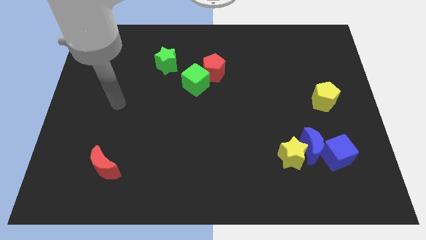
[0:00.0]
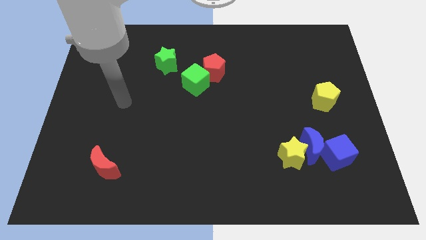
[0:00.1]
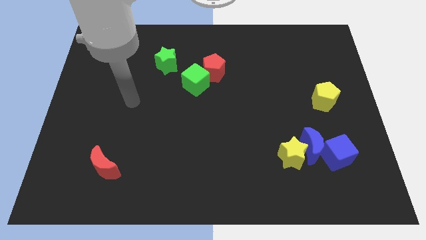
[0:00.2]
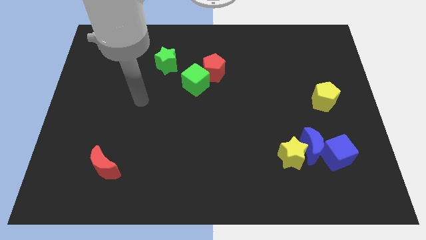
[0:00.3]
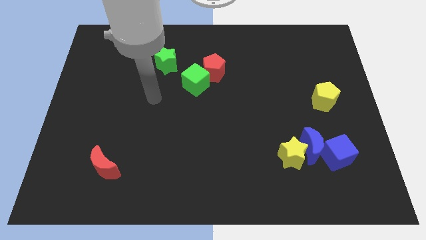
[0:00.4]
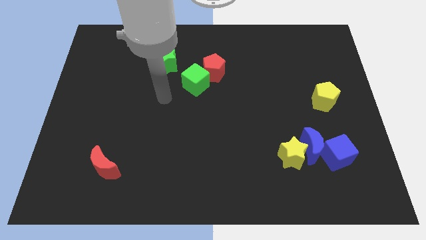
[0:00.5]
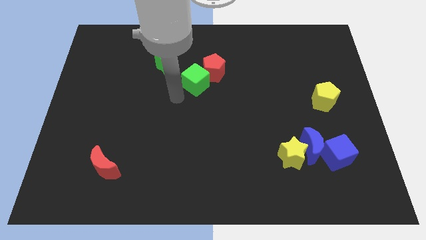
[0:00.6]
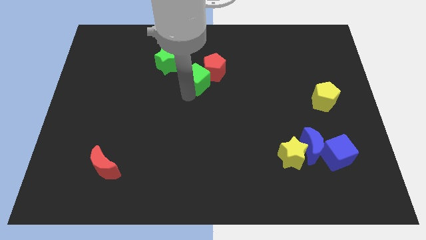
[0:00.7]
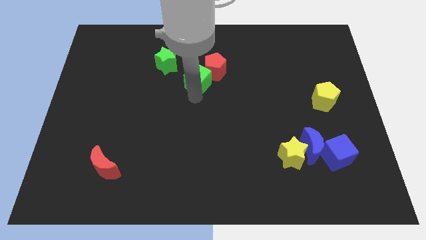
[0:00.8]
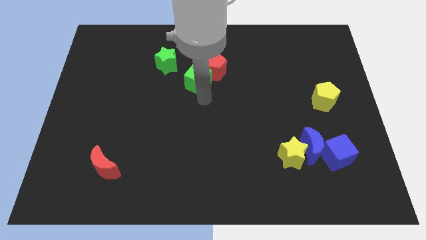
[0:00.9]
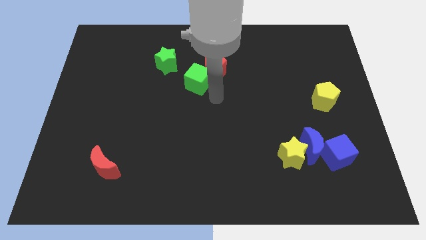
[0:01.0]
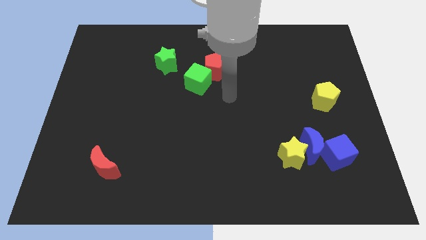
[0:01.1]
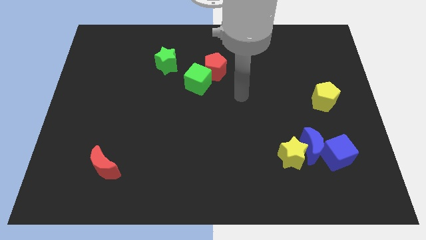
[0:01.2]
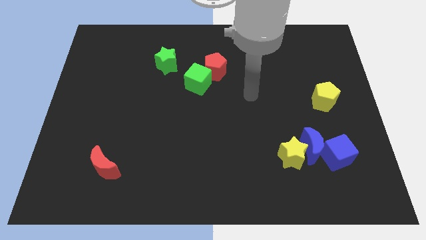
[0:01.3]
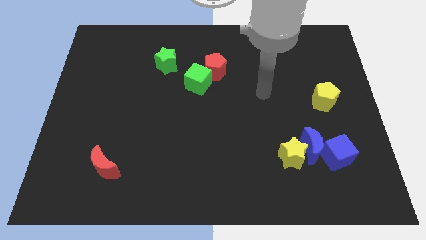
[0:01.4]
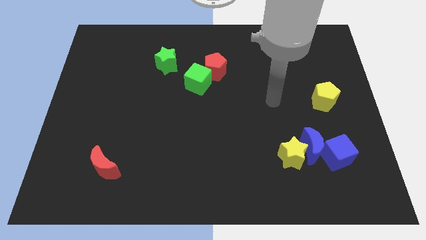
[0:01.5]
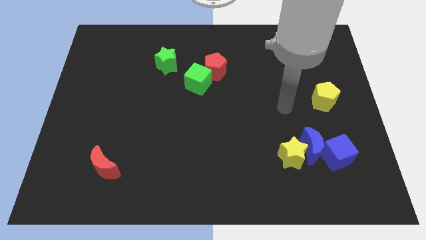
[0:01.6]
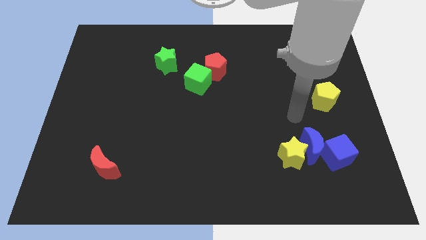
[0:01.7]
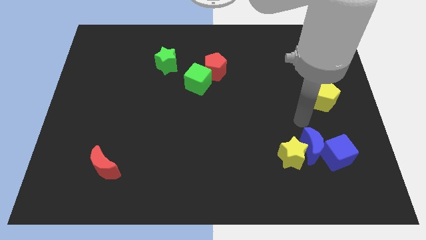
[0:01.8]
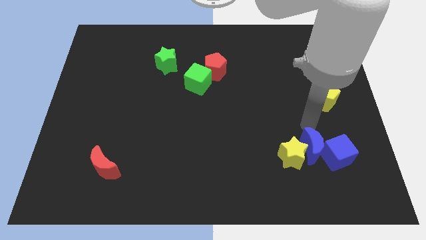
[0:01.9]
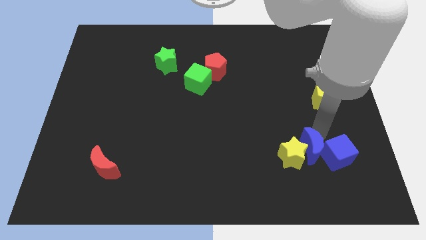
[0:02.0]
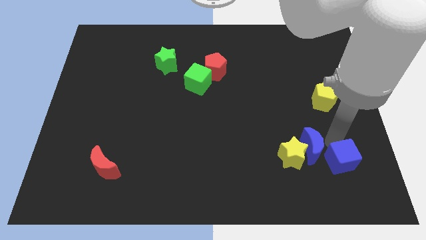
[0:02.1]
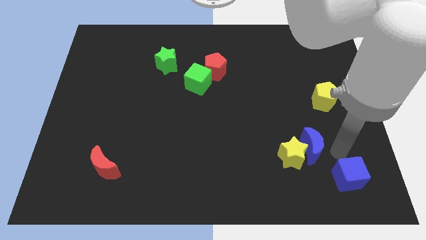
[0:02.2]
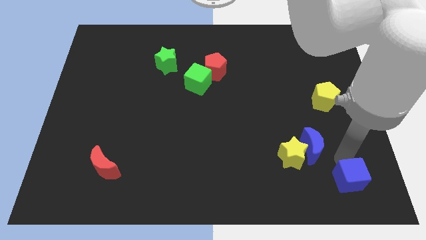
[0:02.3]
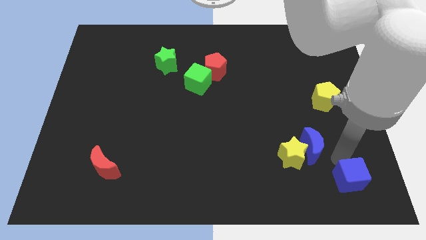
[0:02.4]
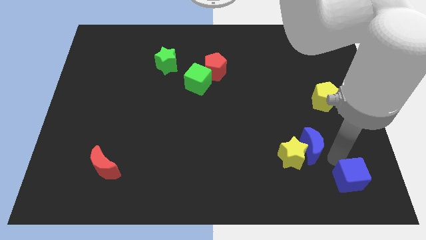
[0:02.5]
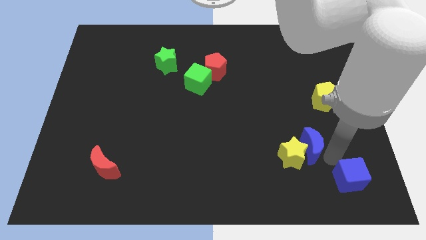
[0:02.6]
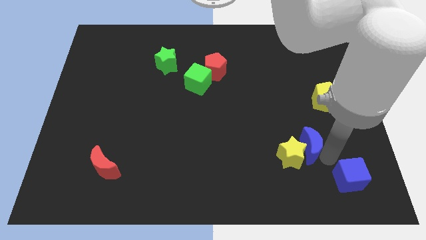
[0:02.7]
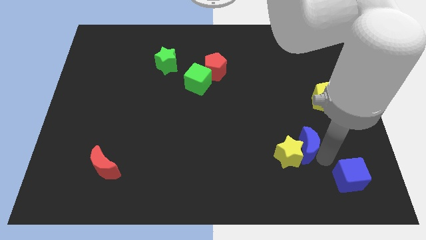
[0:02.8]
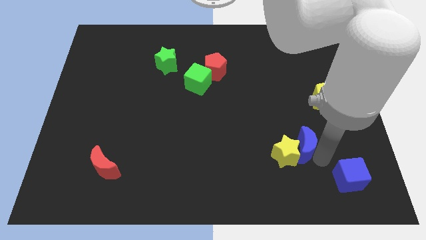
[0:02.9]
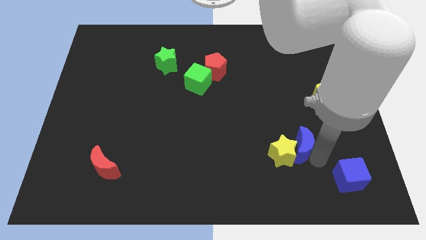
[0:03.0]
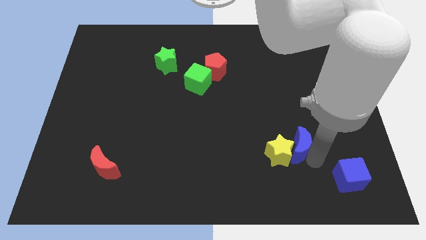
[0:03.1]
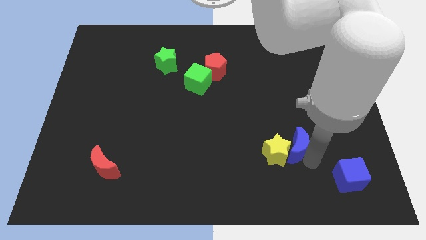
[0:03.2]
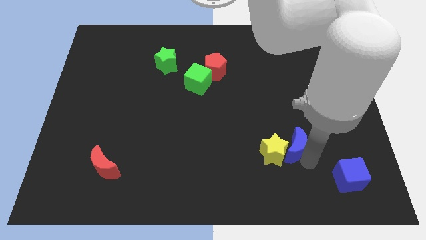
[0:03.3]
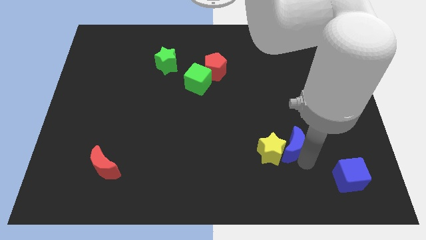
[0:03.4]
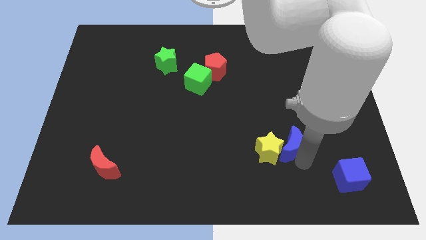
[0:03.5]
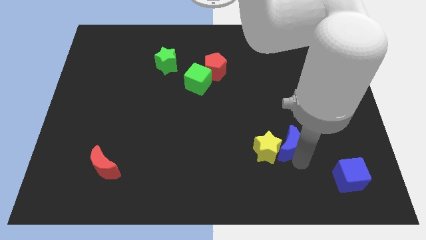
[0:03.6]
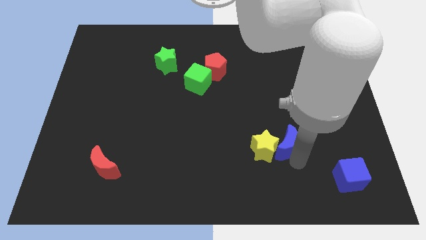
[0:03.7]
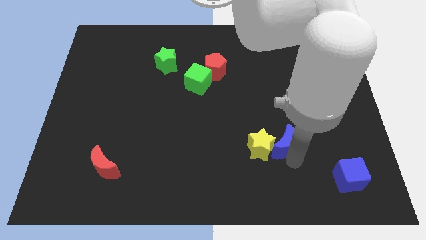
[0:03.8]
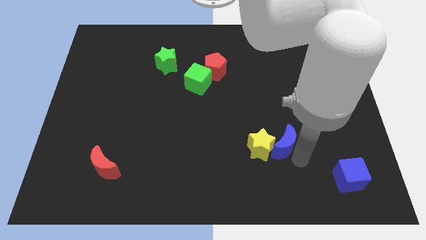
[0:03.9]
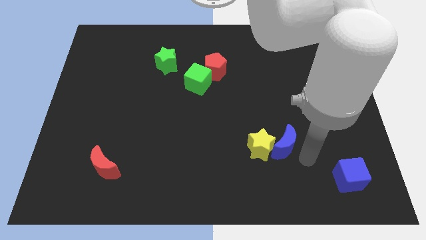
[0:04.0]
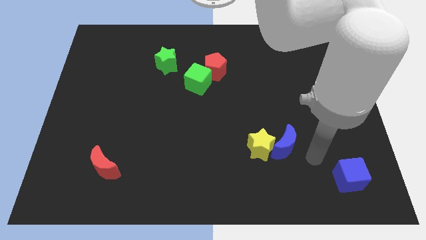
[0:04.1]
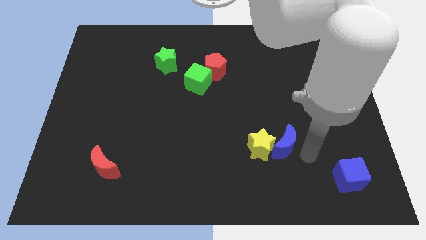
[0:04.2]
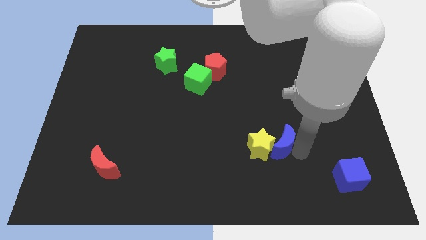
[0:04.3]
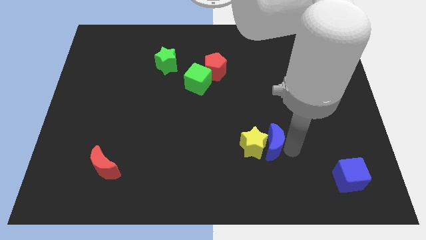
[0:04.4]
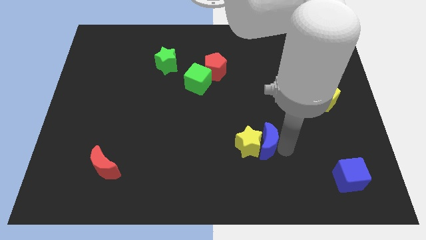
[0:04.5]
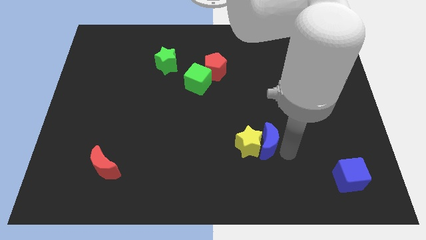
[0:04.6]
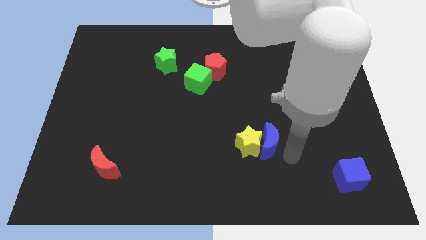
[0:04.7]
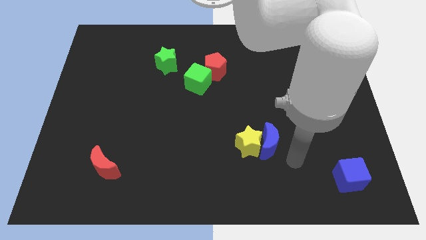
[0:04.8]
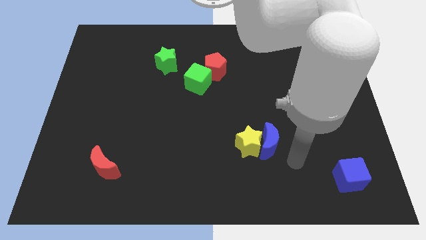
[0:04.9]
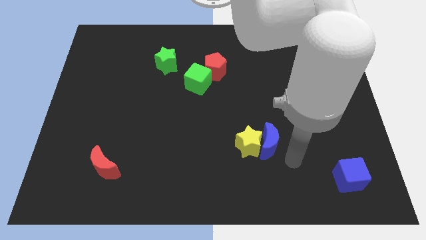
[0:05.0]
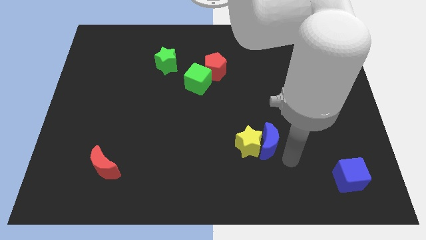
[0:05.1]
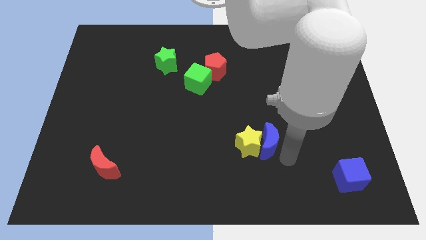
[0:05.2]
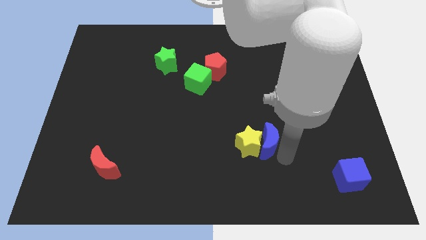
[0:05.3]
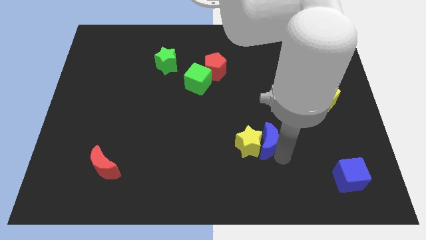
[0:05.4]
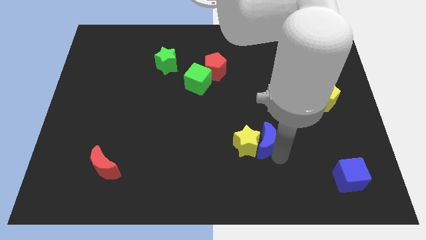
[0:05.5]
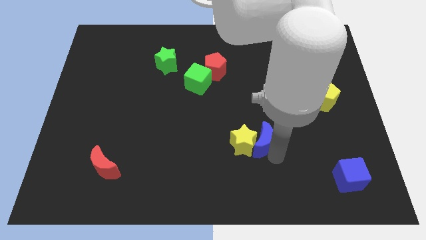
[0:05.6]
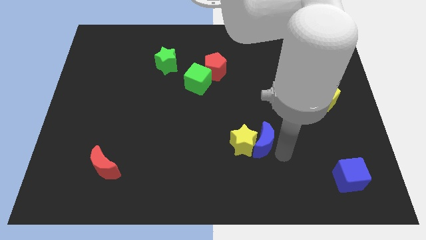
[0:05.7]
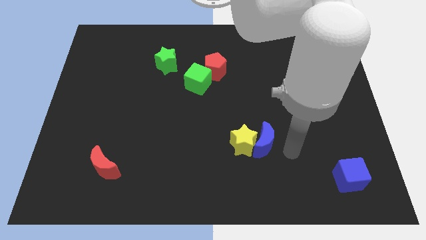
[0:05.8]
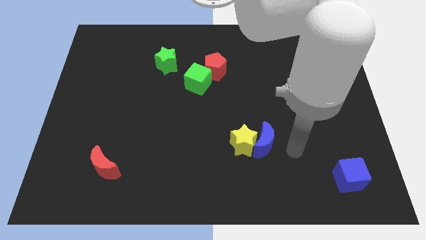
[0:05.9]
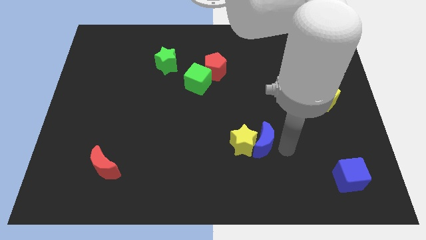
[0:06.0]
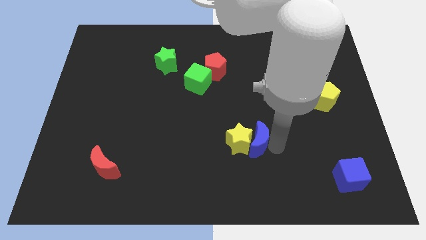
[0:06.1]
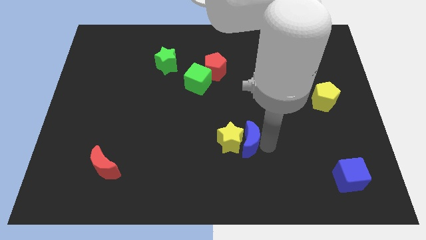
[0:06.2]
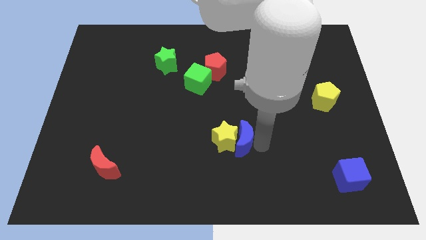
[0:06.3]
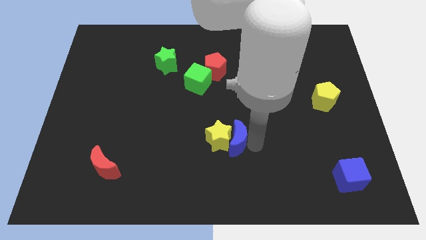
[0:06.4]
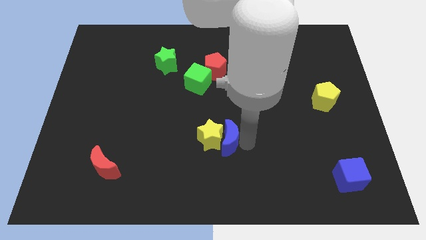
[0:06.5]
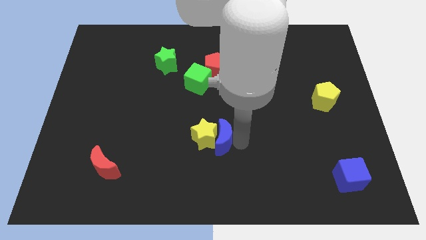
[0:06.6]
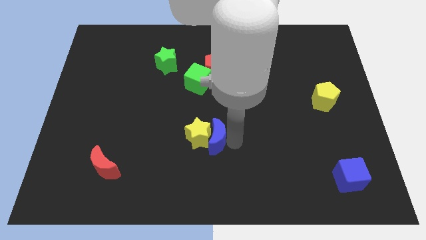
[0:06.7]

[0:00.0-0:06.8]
move the blue moon to the left

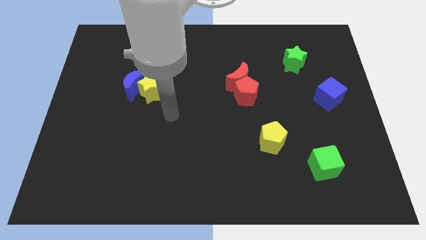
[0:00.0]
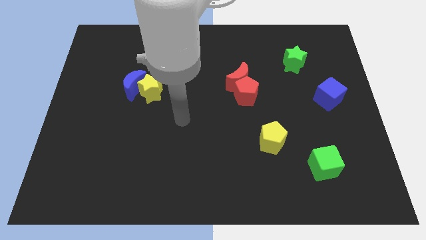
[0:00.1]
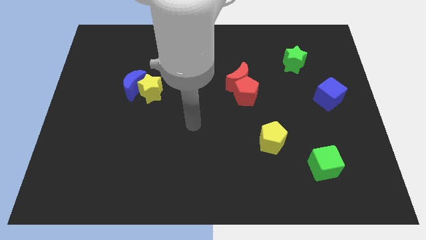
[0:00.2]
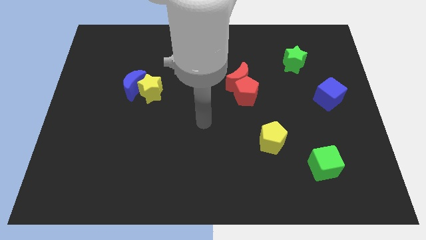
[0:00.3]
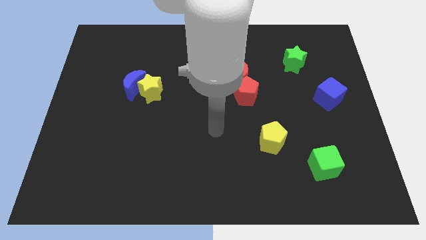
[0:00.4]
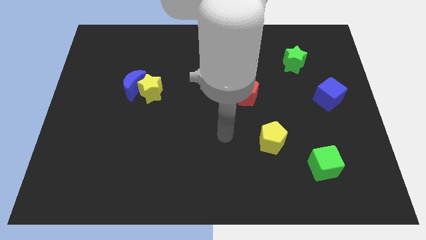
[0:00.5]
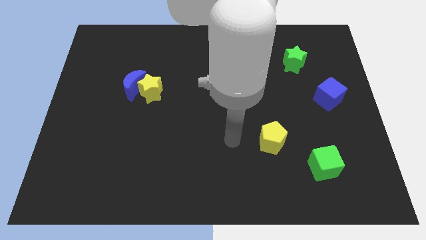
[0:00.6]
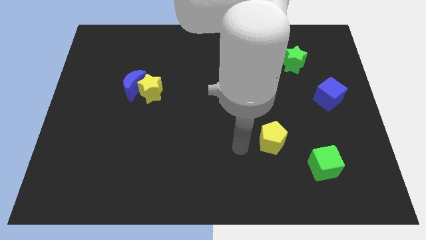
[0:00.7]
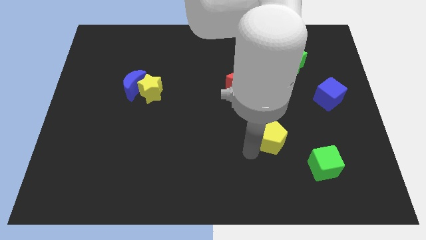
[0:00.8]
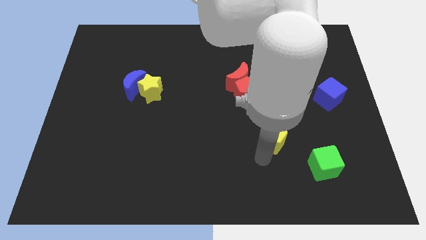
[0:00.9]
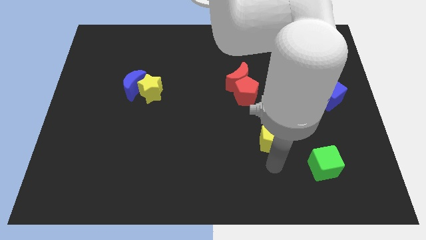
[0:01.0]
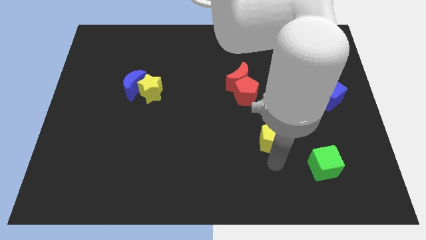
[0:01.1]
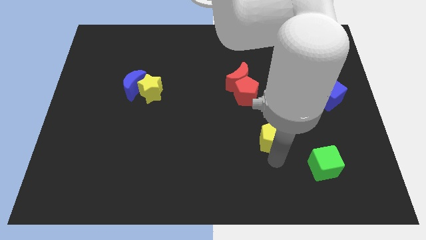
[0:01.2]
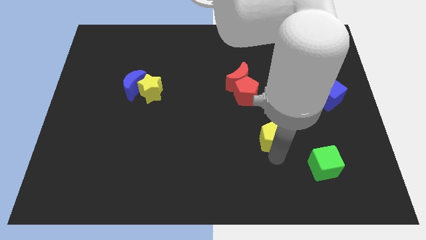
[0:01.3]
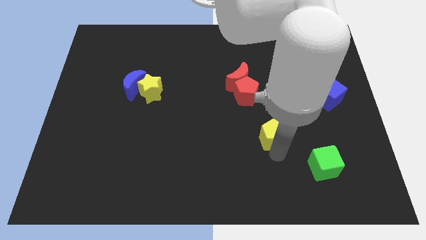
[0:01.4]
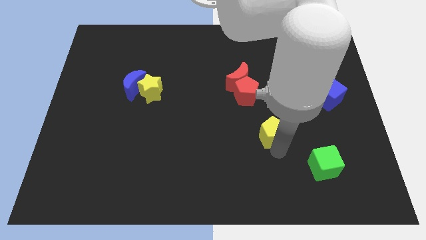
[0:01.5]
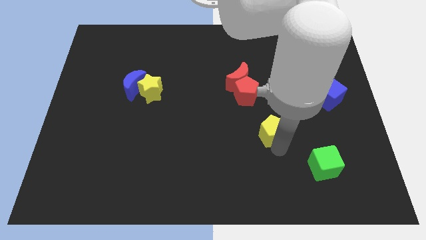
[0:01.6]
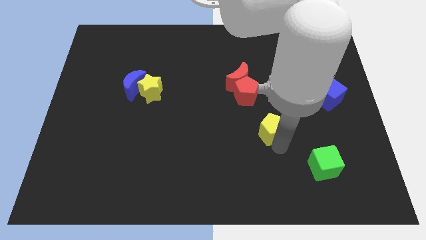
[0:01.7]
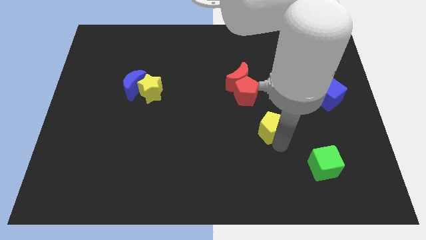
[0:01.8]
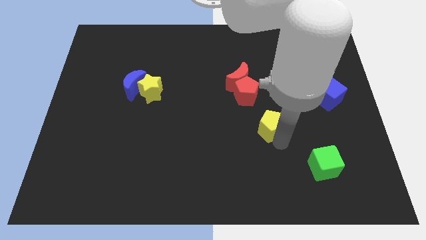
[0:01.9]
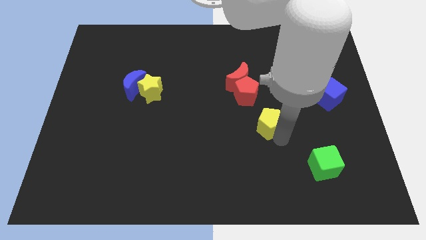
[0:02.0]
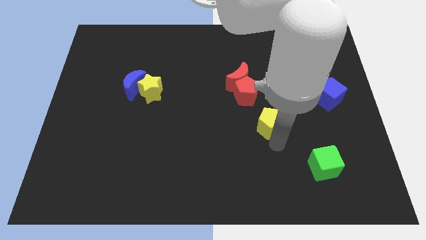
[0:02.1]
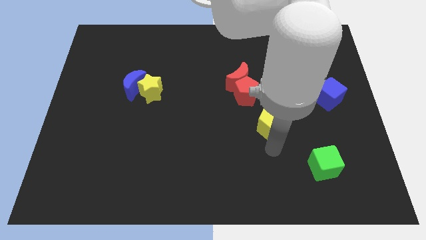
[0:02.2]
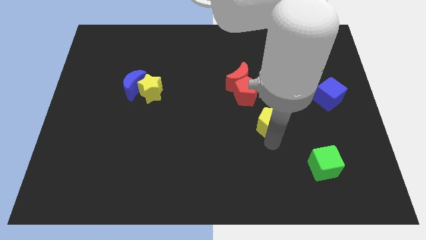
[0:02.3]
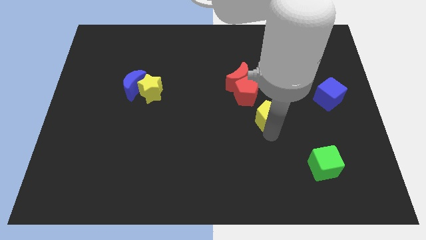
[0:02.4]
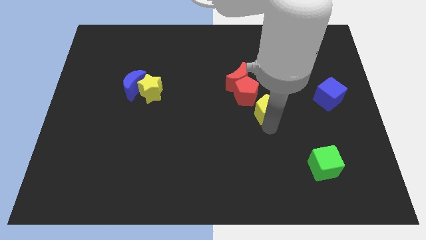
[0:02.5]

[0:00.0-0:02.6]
push the yellow pentagon upwards a little
